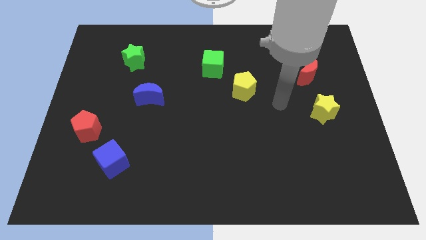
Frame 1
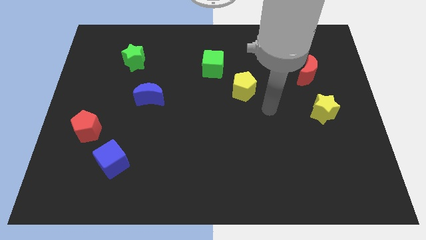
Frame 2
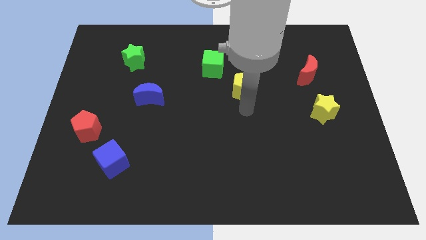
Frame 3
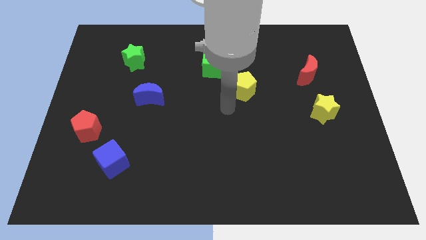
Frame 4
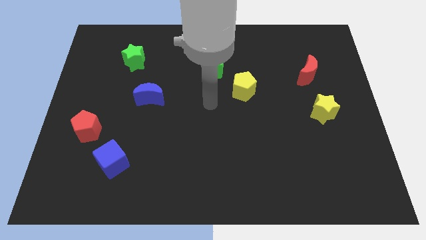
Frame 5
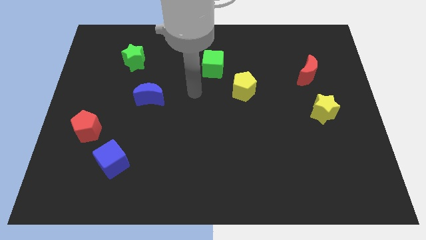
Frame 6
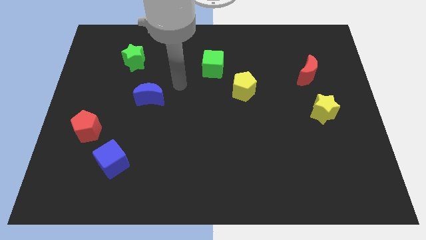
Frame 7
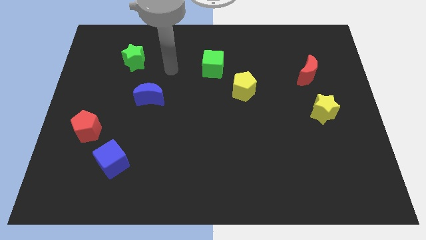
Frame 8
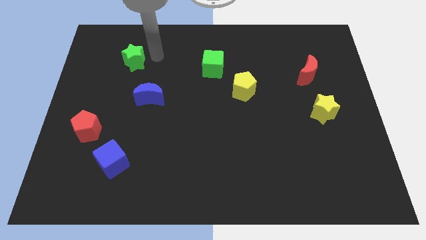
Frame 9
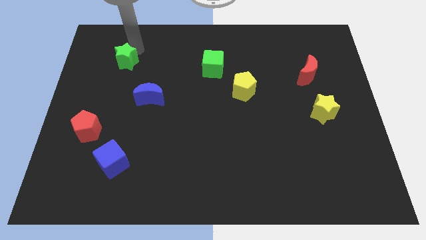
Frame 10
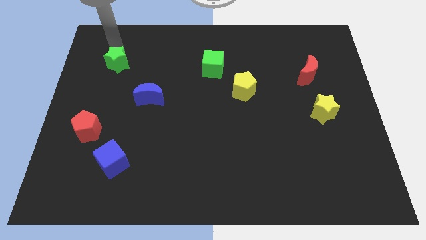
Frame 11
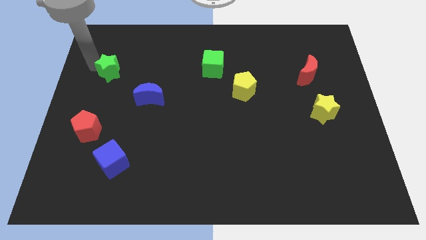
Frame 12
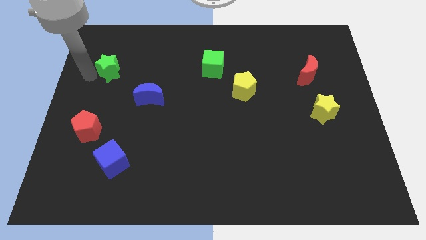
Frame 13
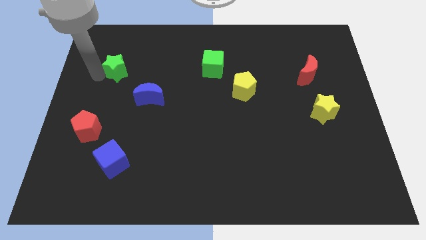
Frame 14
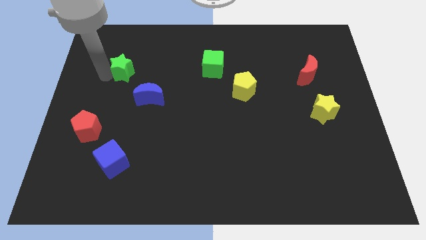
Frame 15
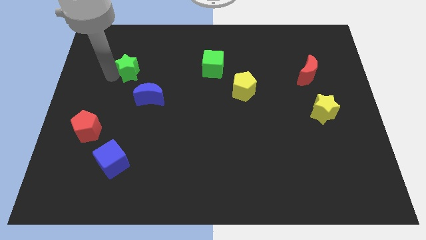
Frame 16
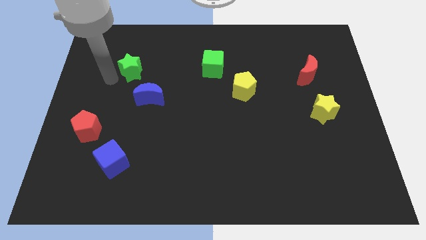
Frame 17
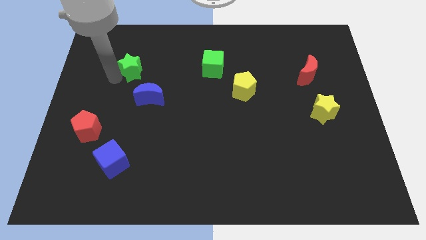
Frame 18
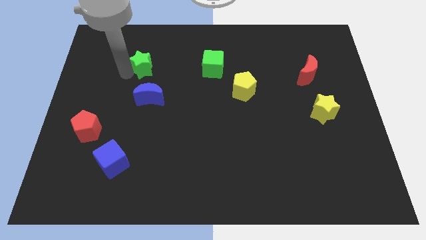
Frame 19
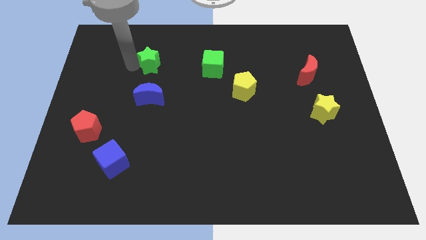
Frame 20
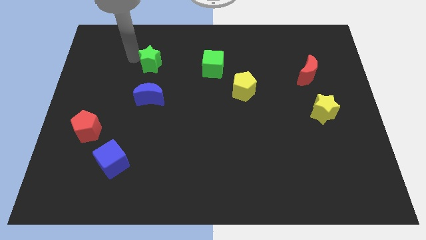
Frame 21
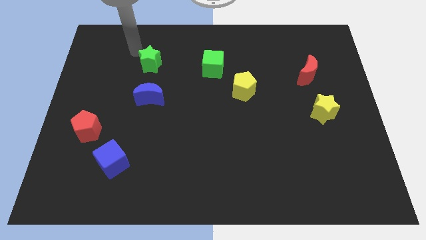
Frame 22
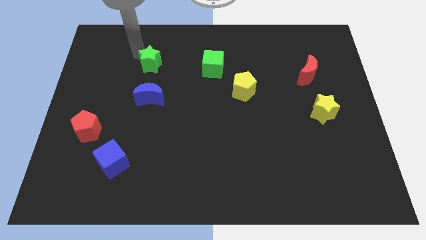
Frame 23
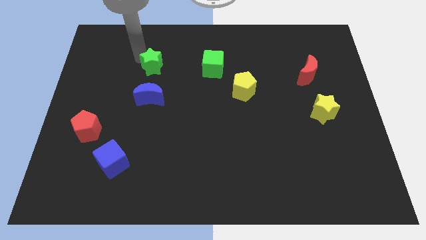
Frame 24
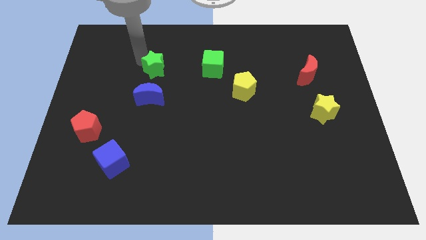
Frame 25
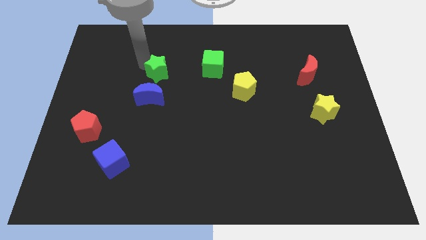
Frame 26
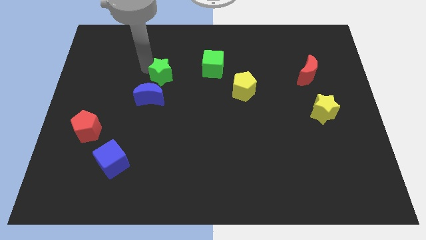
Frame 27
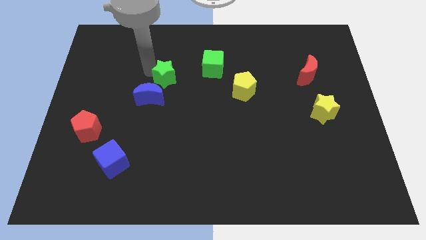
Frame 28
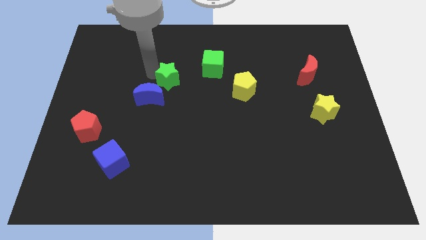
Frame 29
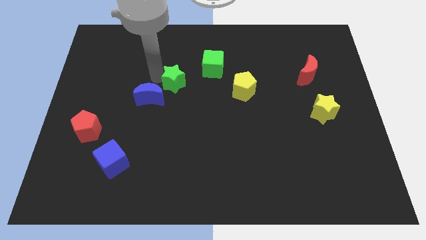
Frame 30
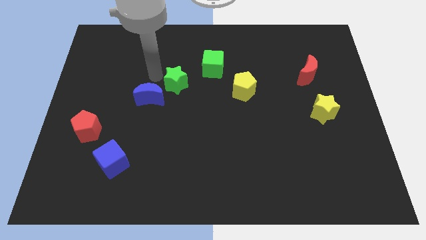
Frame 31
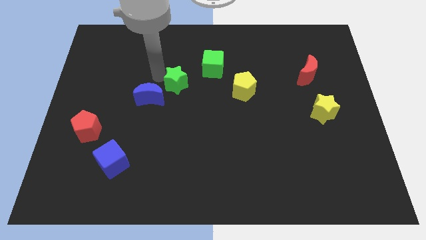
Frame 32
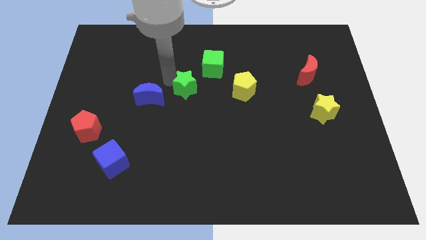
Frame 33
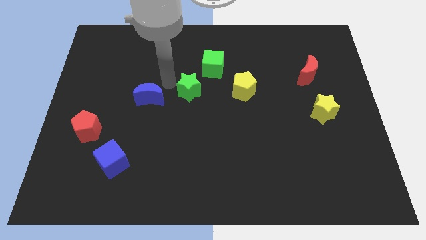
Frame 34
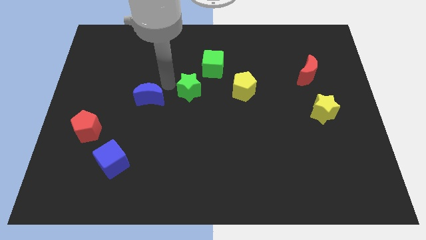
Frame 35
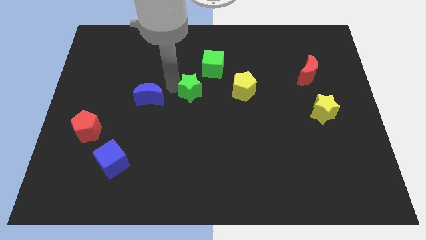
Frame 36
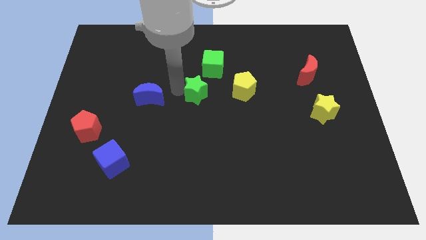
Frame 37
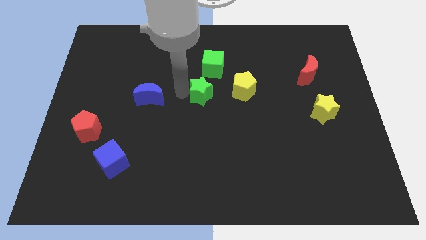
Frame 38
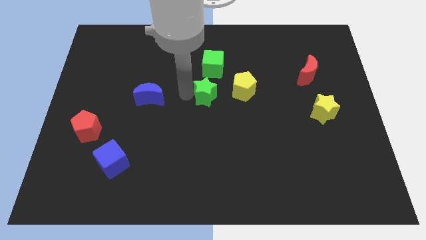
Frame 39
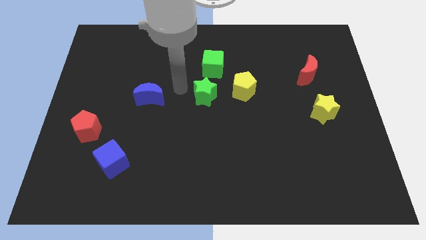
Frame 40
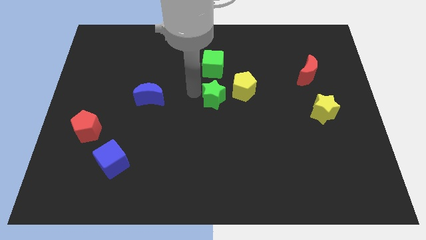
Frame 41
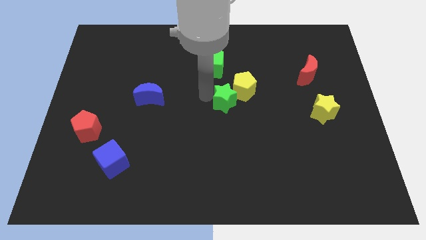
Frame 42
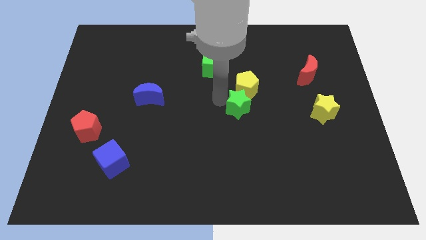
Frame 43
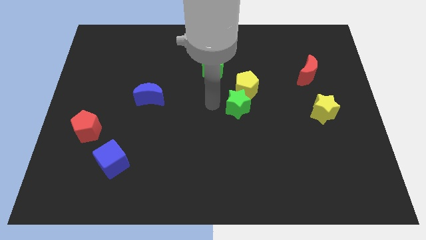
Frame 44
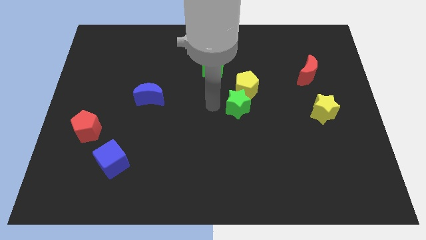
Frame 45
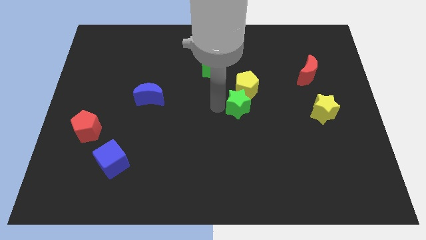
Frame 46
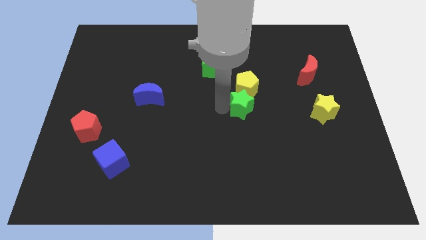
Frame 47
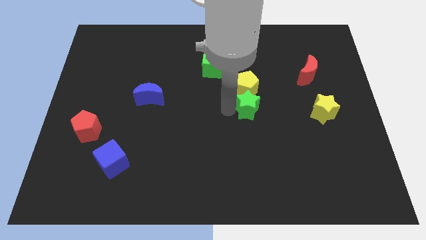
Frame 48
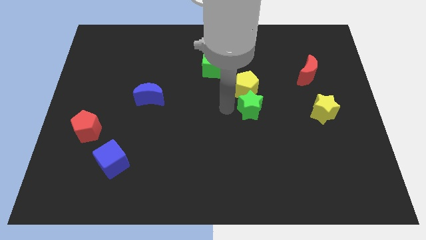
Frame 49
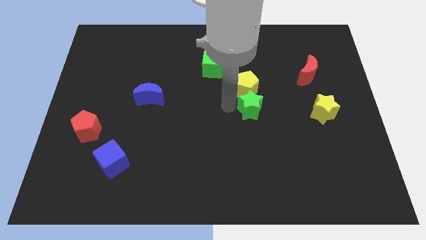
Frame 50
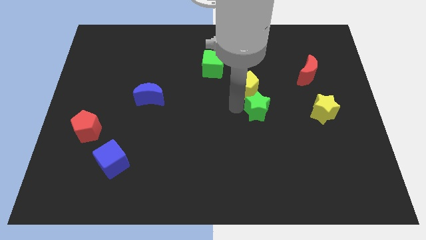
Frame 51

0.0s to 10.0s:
put the green star to the left of the yellow star

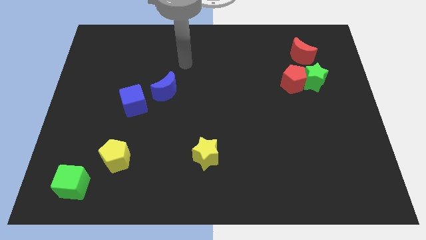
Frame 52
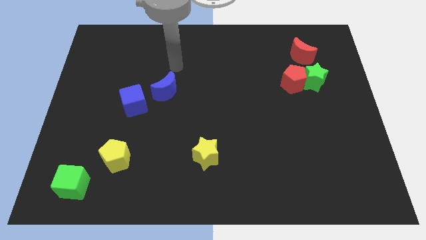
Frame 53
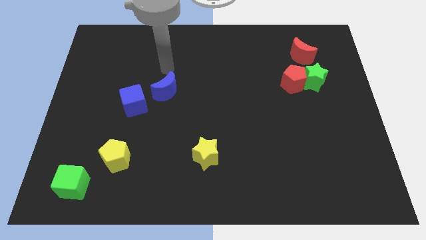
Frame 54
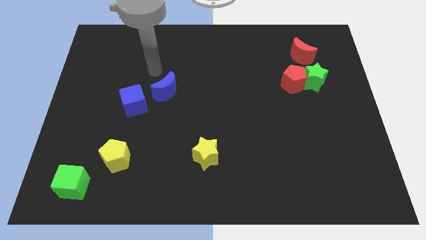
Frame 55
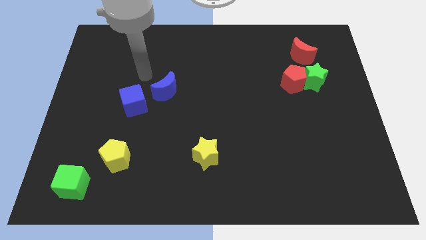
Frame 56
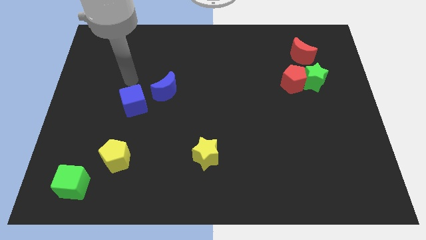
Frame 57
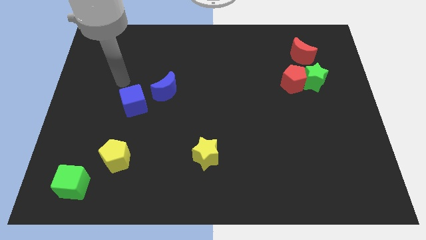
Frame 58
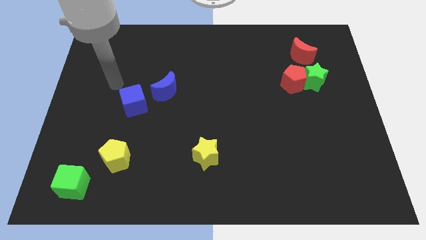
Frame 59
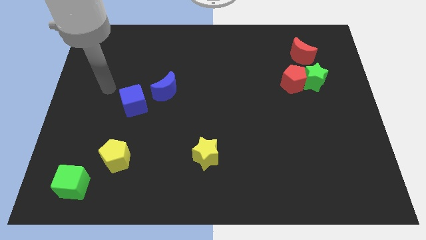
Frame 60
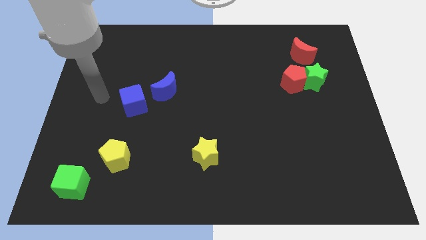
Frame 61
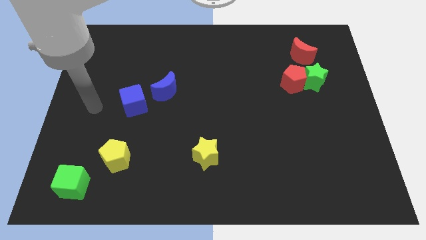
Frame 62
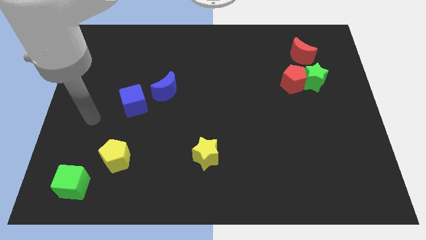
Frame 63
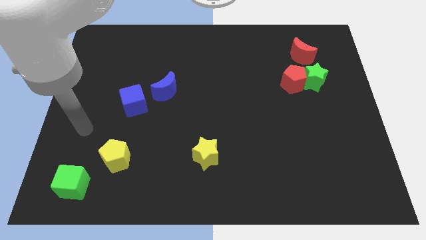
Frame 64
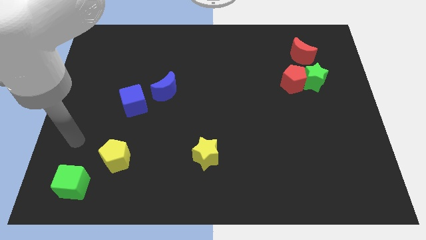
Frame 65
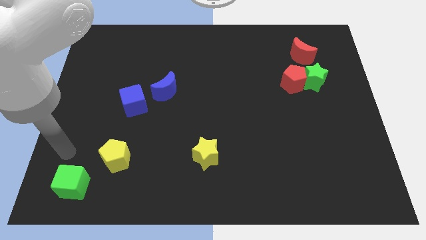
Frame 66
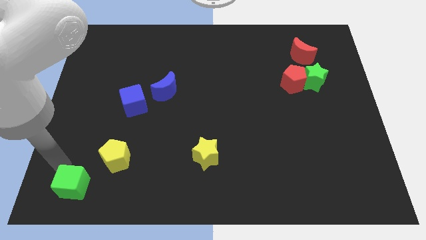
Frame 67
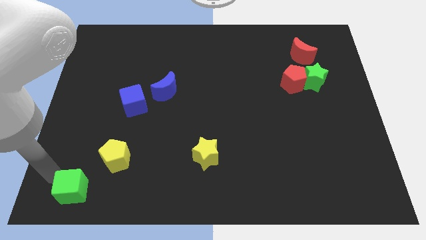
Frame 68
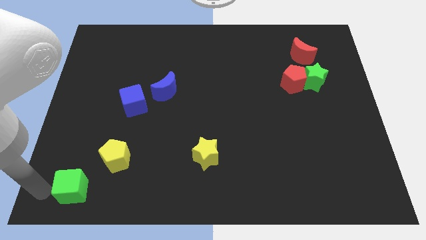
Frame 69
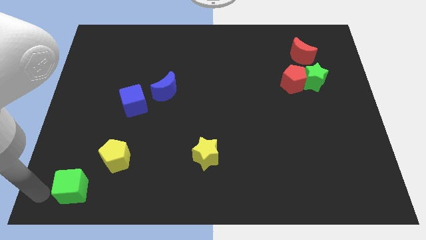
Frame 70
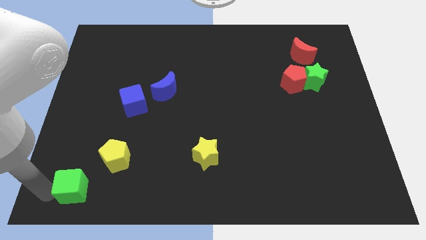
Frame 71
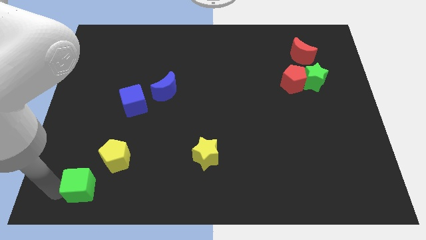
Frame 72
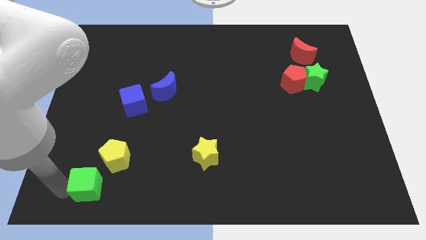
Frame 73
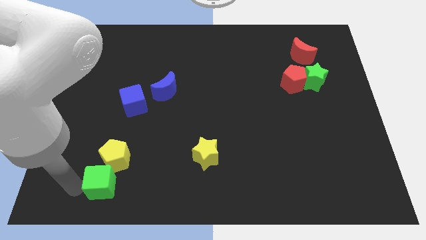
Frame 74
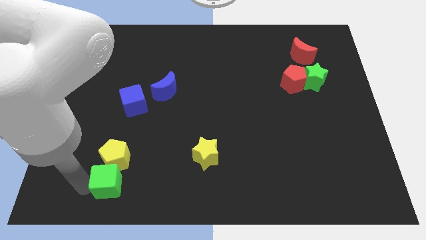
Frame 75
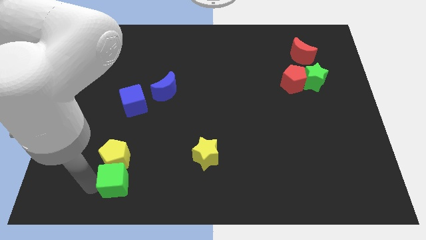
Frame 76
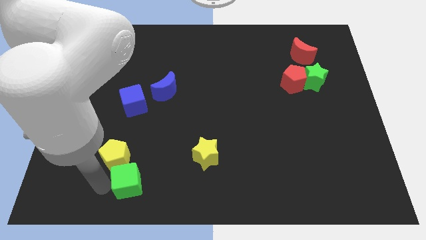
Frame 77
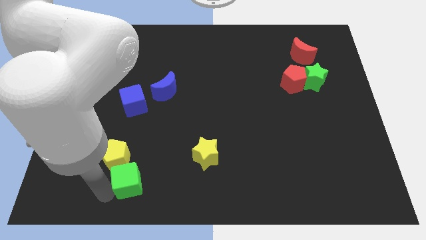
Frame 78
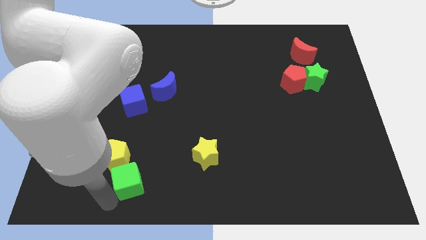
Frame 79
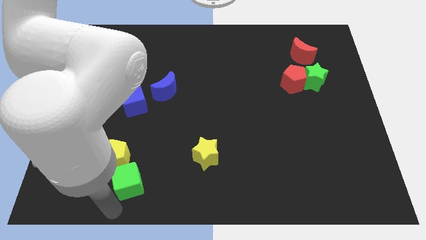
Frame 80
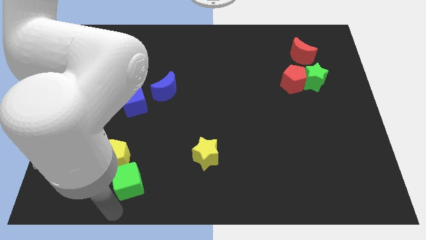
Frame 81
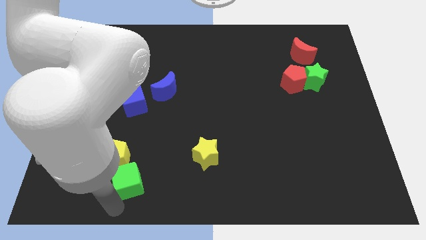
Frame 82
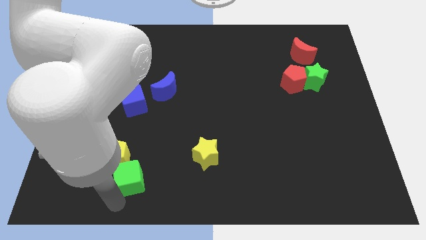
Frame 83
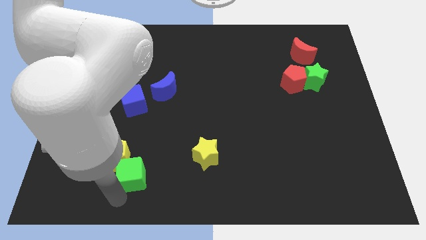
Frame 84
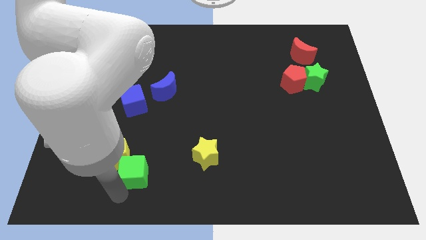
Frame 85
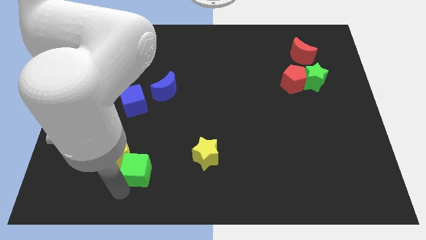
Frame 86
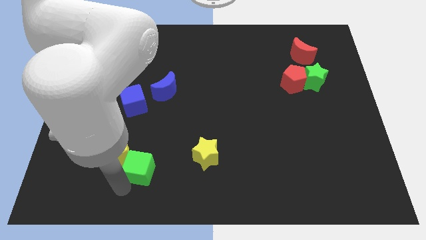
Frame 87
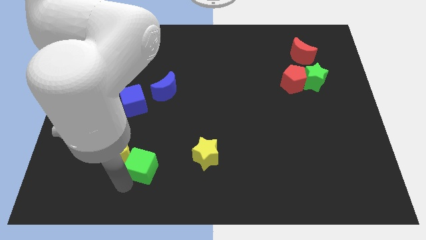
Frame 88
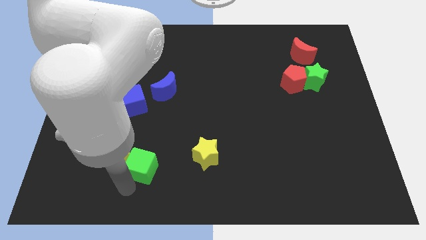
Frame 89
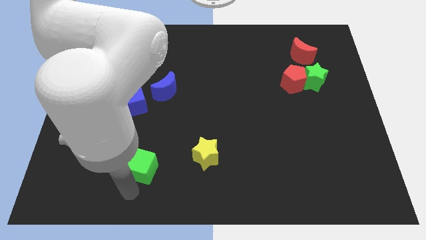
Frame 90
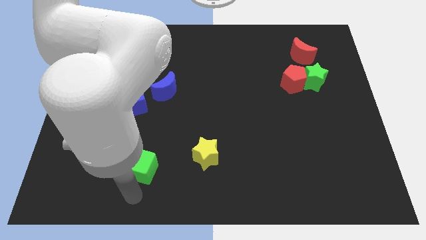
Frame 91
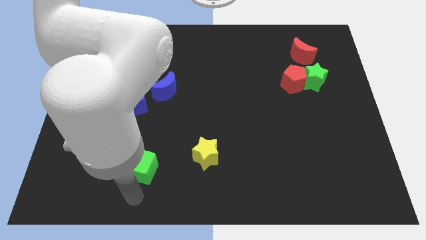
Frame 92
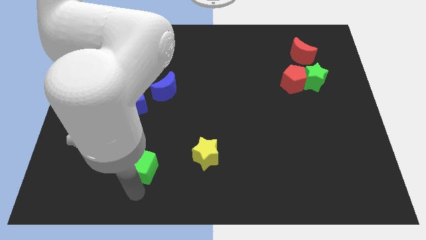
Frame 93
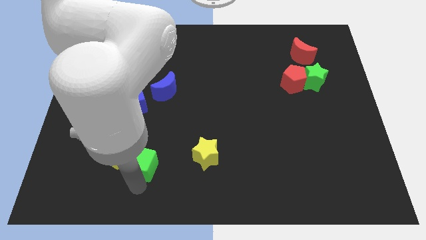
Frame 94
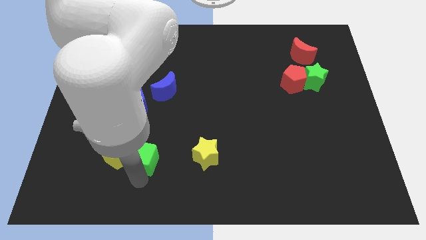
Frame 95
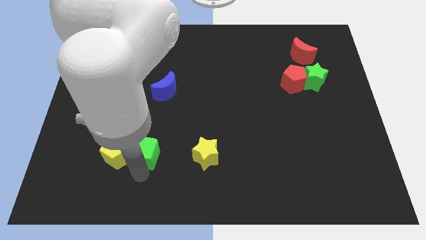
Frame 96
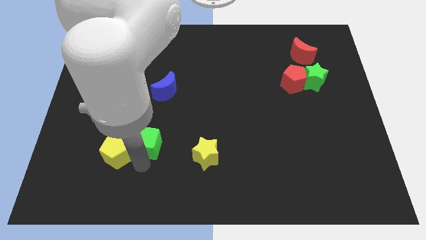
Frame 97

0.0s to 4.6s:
push the green cube below the blue moon
